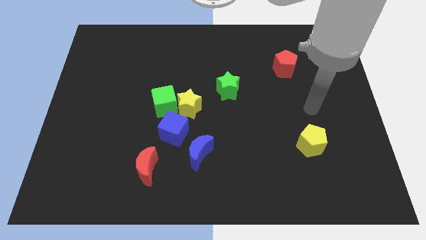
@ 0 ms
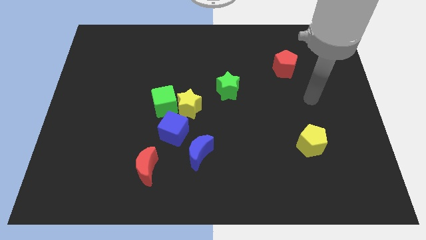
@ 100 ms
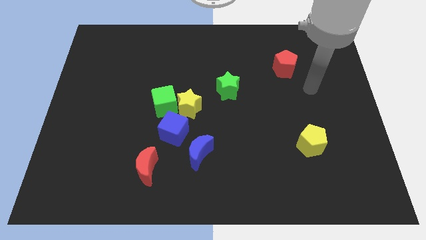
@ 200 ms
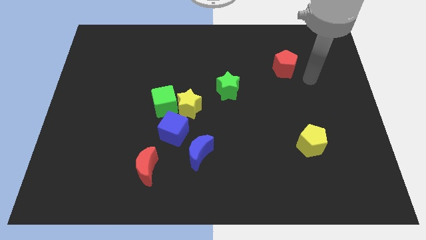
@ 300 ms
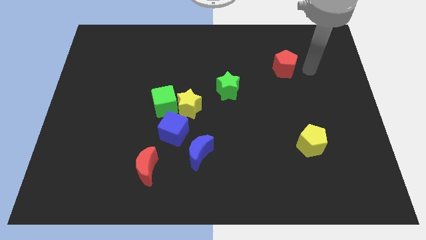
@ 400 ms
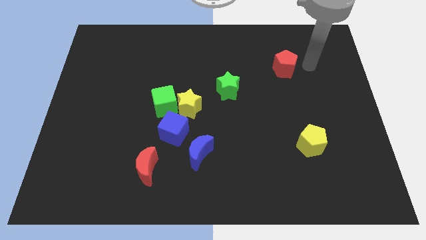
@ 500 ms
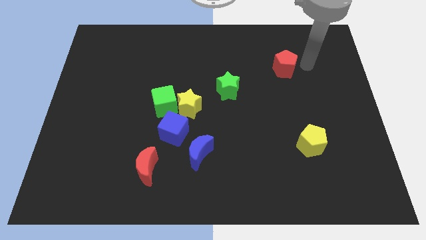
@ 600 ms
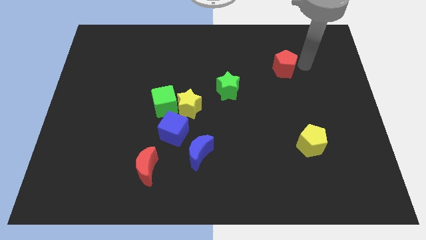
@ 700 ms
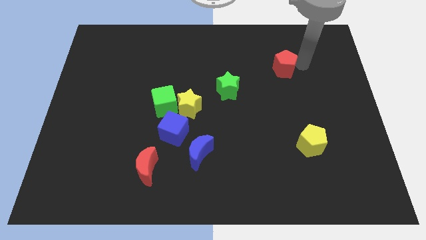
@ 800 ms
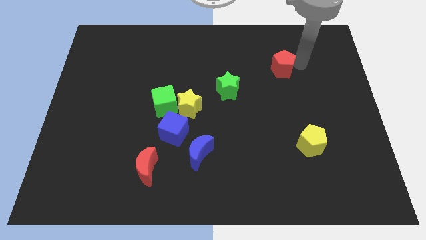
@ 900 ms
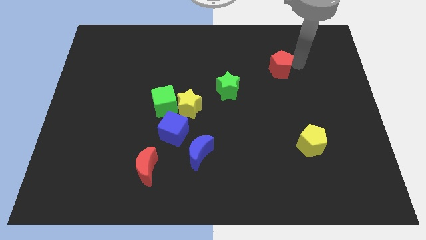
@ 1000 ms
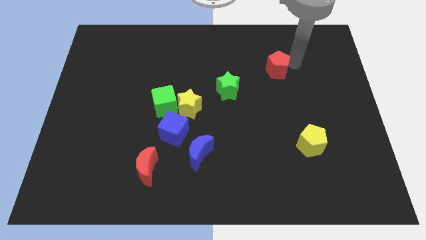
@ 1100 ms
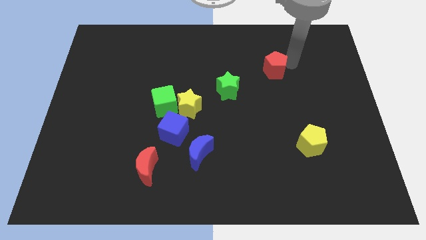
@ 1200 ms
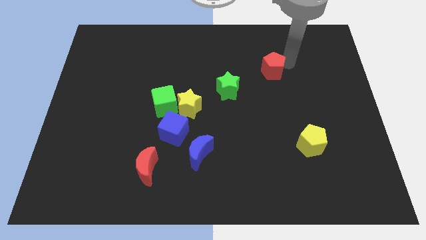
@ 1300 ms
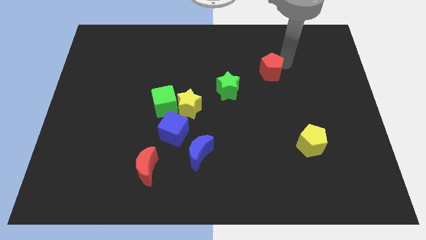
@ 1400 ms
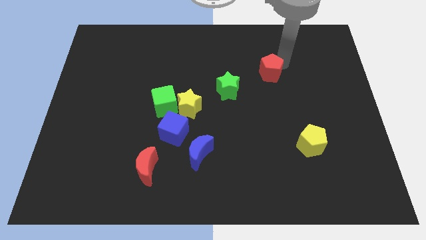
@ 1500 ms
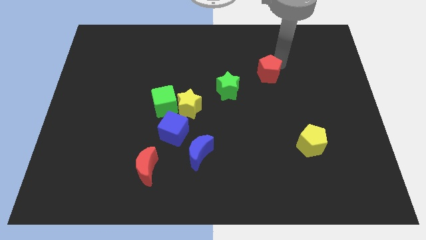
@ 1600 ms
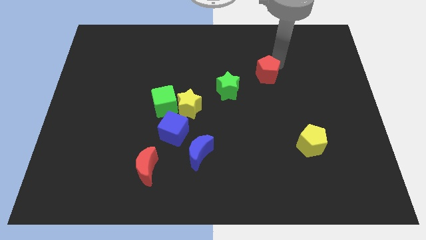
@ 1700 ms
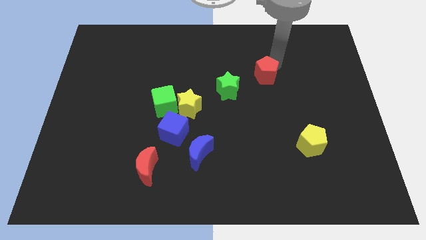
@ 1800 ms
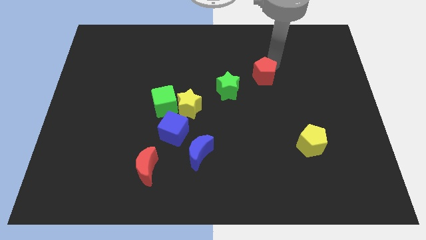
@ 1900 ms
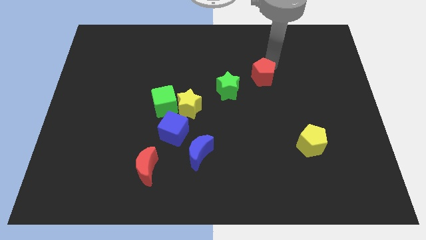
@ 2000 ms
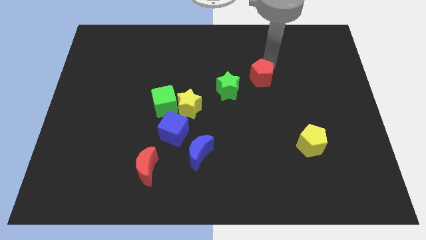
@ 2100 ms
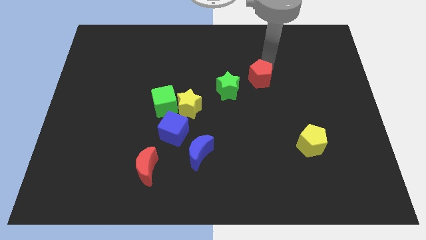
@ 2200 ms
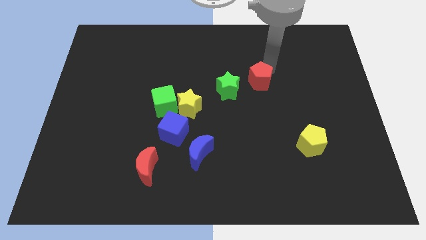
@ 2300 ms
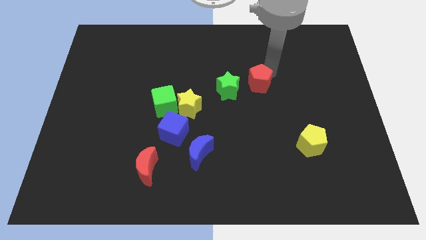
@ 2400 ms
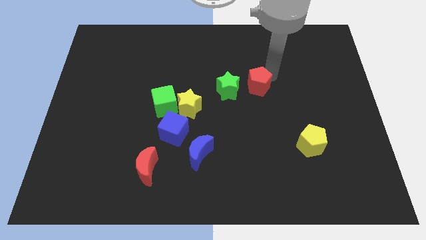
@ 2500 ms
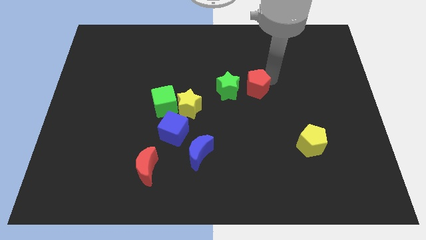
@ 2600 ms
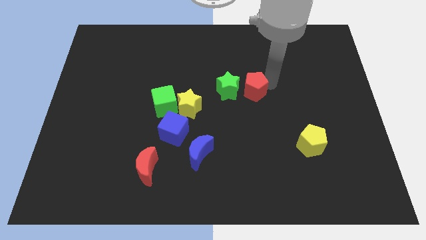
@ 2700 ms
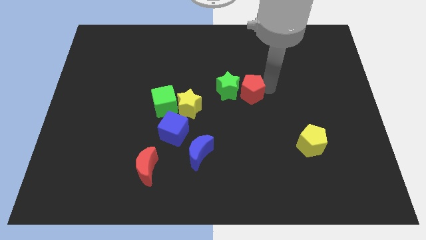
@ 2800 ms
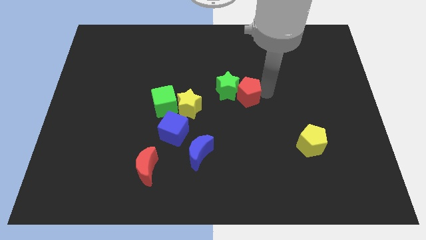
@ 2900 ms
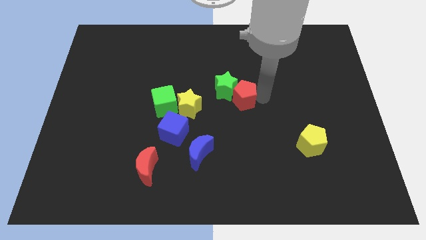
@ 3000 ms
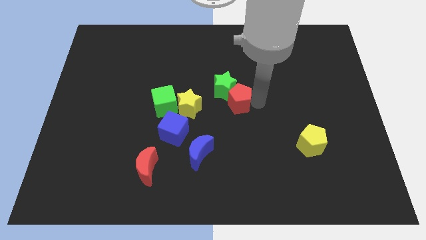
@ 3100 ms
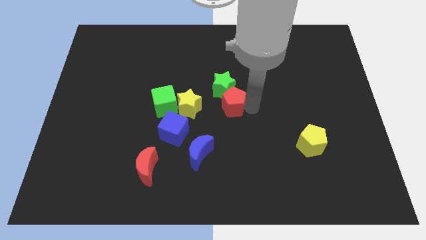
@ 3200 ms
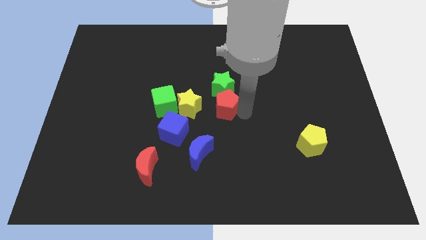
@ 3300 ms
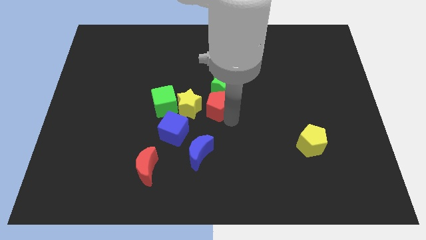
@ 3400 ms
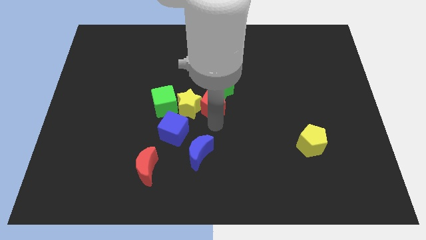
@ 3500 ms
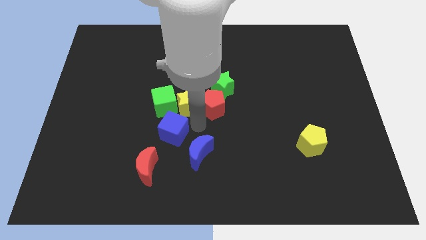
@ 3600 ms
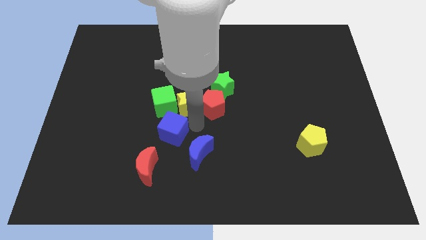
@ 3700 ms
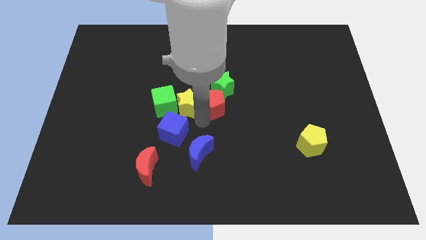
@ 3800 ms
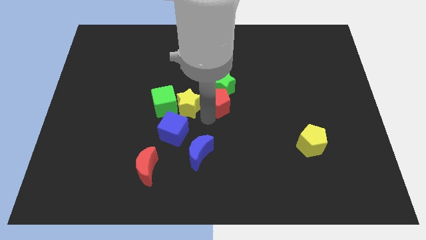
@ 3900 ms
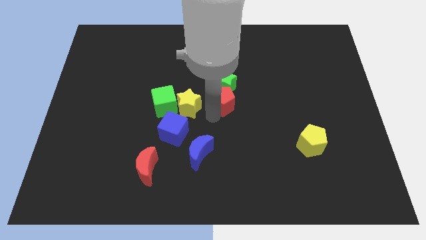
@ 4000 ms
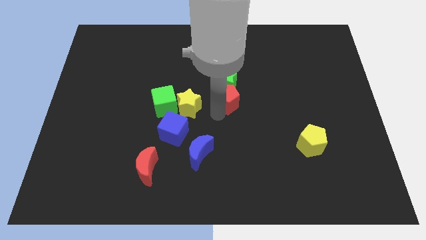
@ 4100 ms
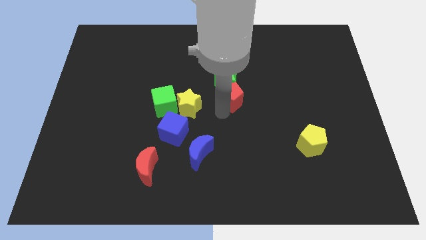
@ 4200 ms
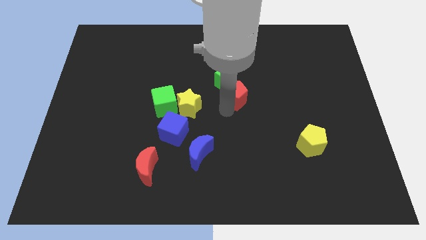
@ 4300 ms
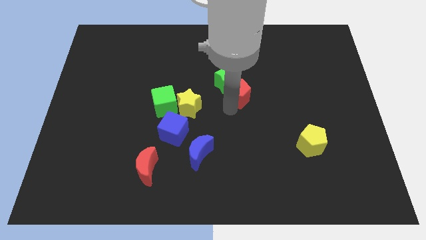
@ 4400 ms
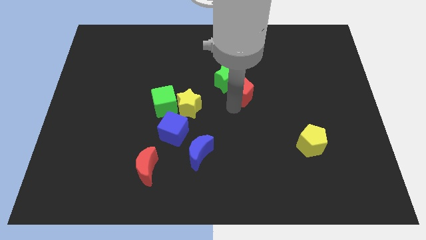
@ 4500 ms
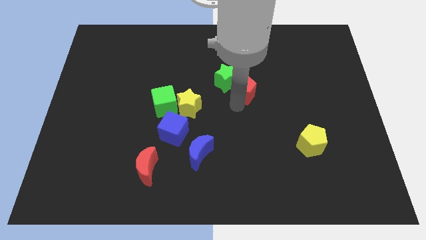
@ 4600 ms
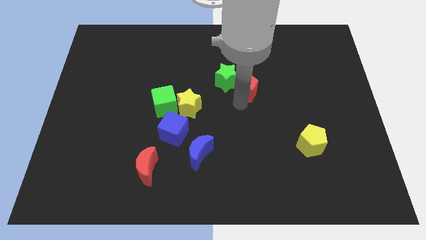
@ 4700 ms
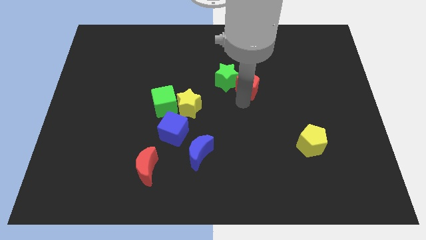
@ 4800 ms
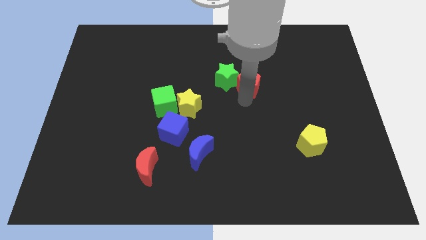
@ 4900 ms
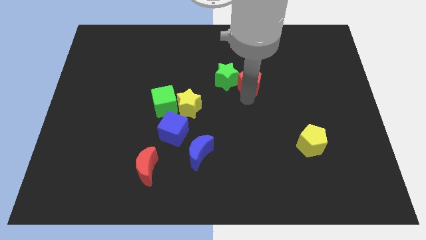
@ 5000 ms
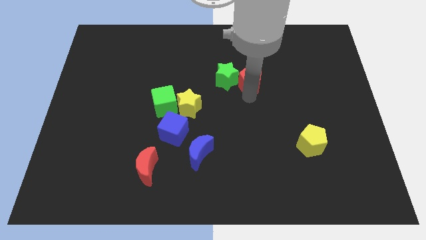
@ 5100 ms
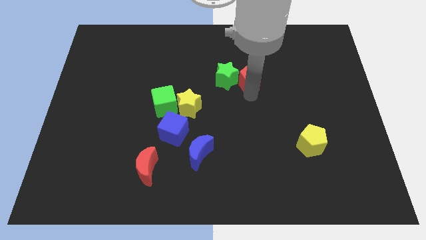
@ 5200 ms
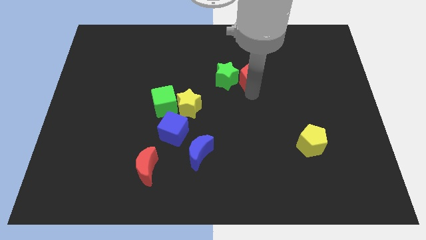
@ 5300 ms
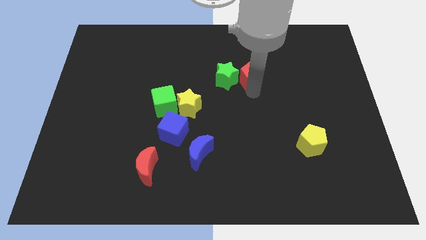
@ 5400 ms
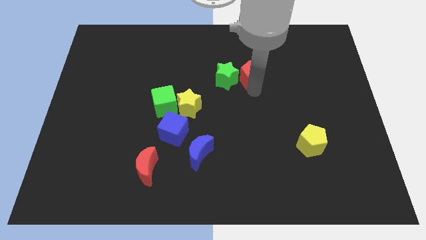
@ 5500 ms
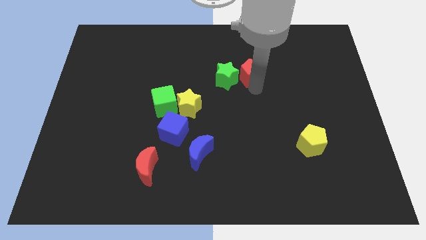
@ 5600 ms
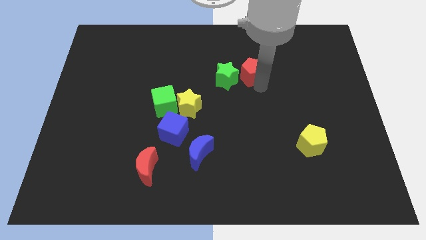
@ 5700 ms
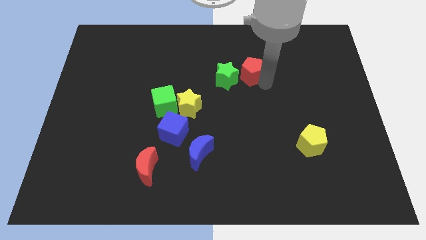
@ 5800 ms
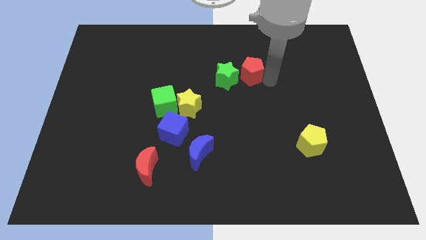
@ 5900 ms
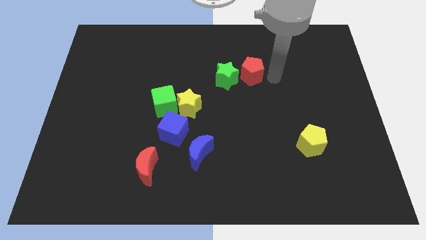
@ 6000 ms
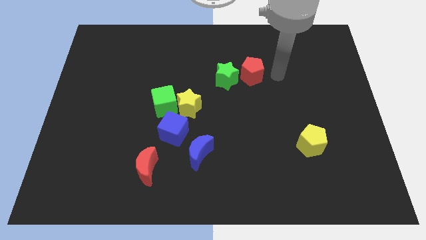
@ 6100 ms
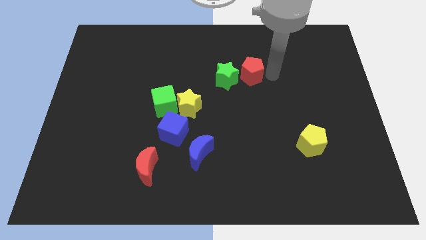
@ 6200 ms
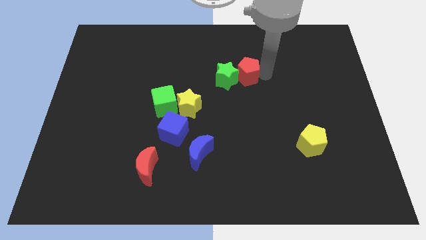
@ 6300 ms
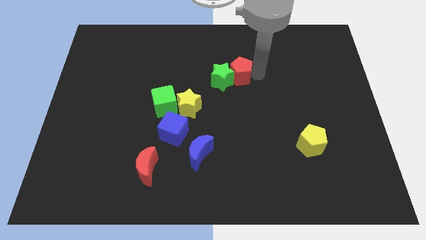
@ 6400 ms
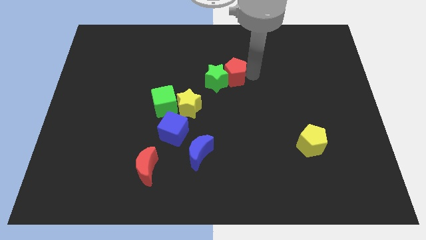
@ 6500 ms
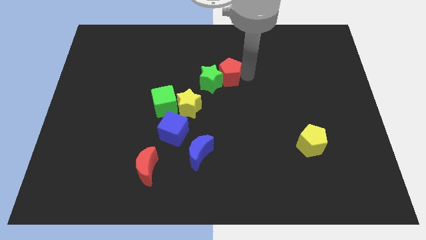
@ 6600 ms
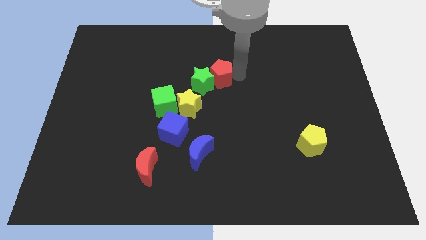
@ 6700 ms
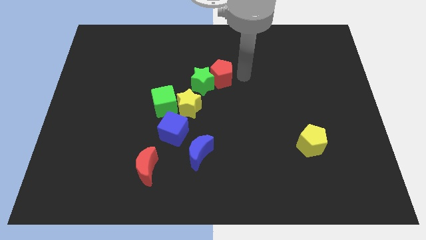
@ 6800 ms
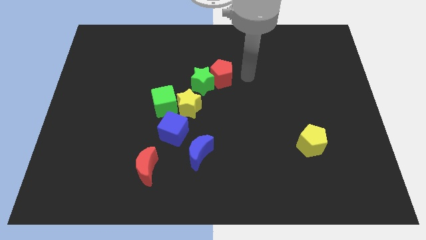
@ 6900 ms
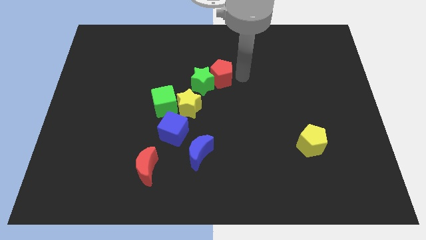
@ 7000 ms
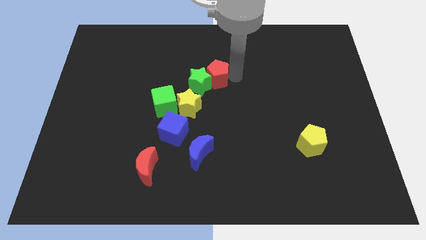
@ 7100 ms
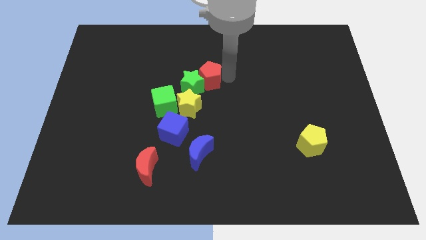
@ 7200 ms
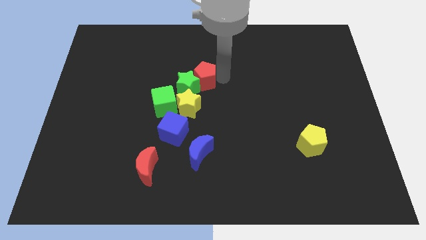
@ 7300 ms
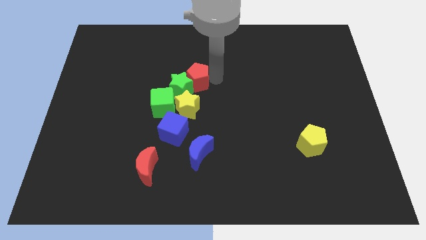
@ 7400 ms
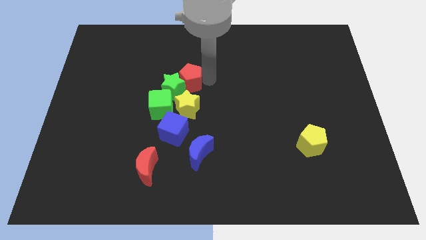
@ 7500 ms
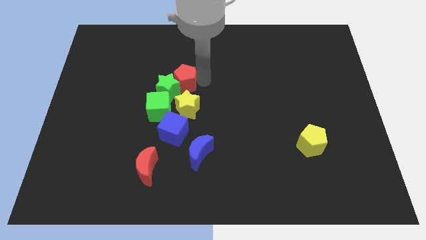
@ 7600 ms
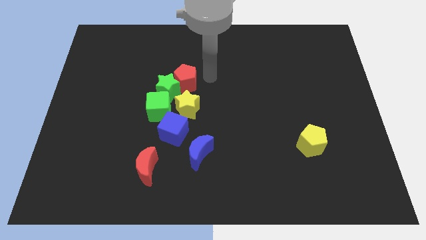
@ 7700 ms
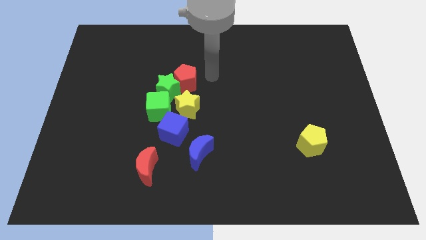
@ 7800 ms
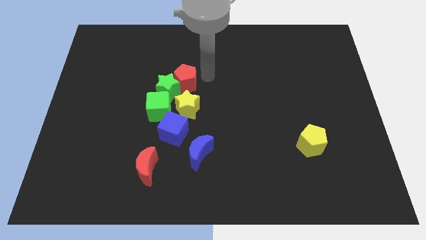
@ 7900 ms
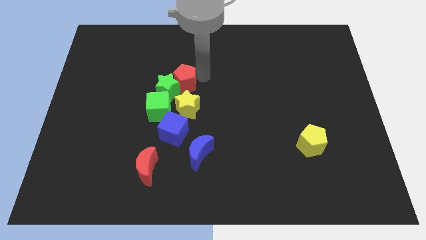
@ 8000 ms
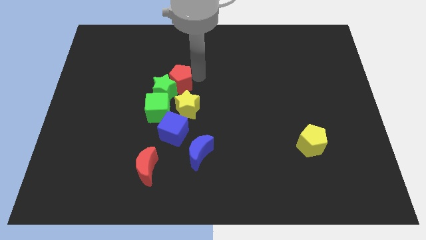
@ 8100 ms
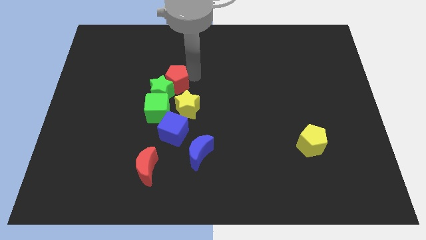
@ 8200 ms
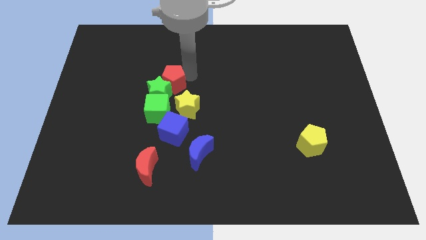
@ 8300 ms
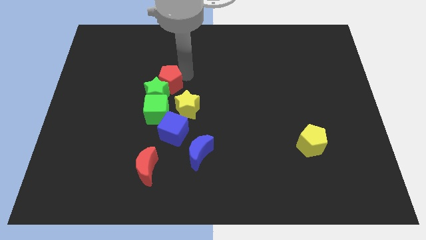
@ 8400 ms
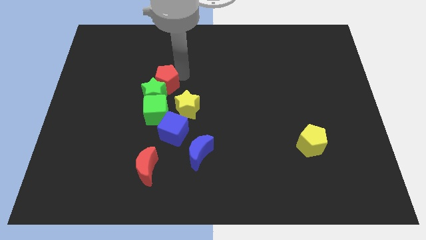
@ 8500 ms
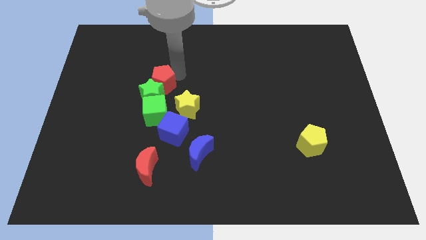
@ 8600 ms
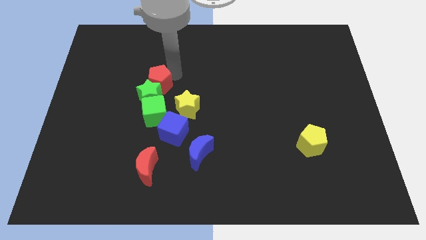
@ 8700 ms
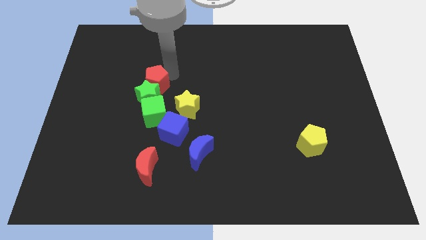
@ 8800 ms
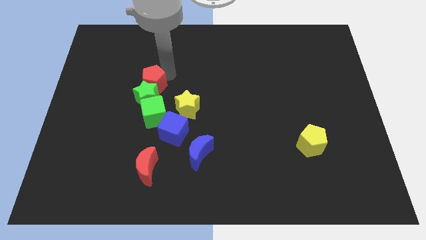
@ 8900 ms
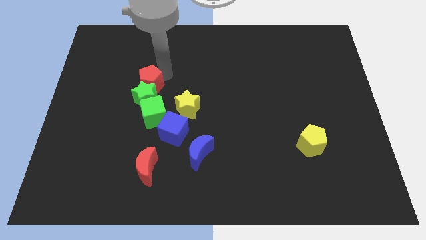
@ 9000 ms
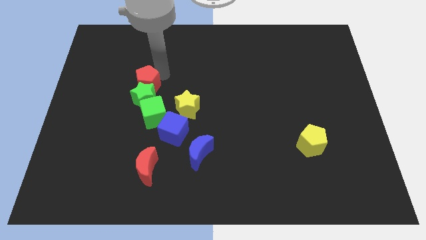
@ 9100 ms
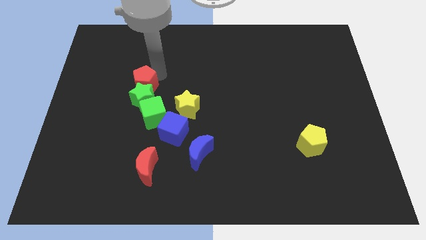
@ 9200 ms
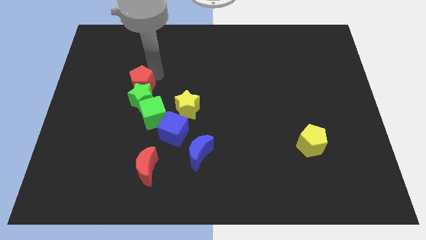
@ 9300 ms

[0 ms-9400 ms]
move the red pentagon diagonally up and to the left of the green cube
